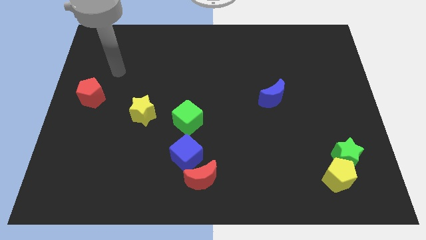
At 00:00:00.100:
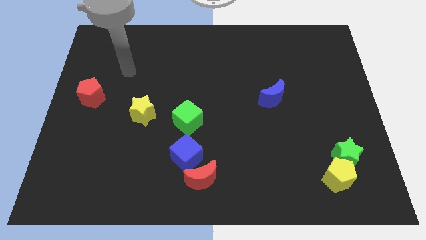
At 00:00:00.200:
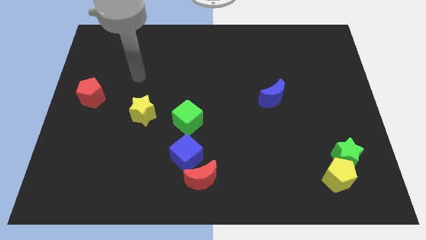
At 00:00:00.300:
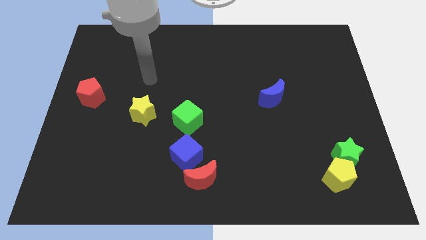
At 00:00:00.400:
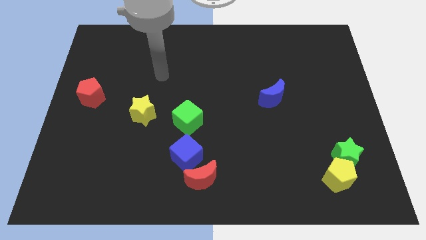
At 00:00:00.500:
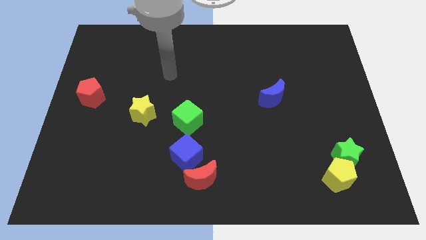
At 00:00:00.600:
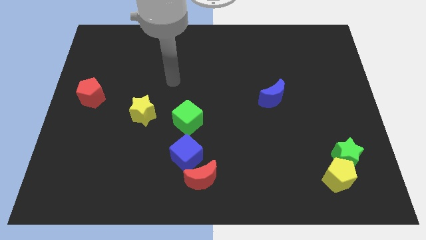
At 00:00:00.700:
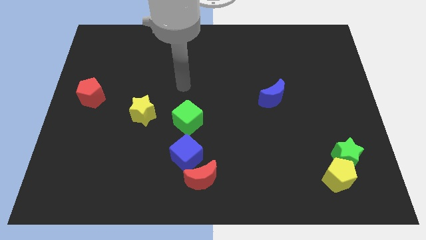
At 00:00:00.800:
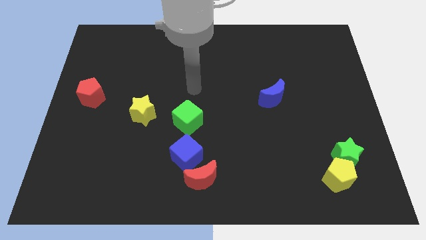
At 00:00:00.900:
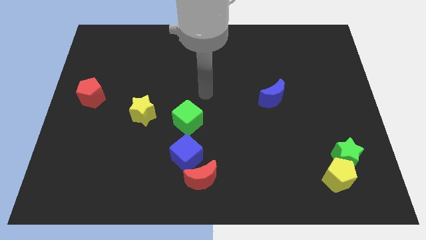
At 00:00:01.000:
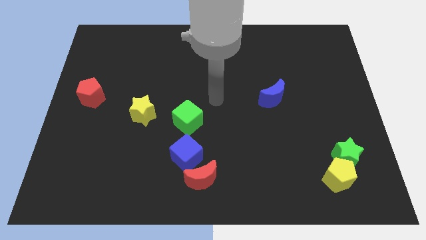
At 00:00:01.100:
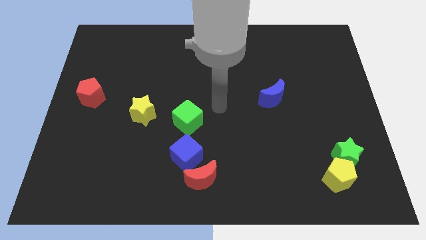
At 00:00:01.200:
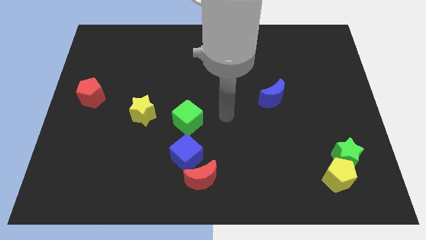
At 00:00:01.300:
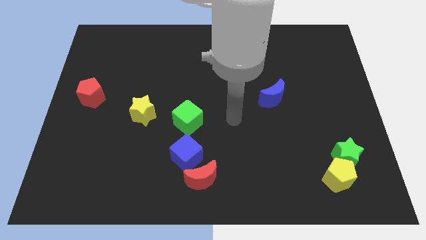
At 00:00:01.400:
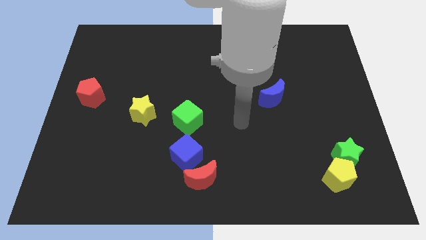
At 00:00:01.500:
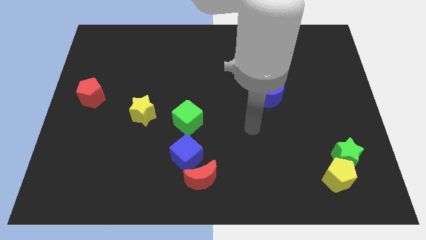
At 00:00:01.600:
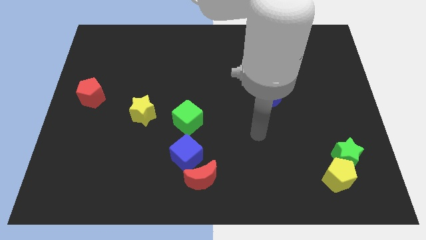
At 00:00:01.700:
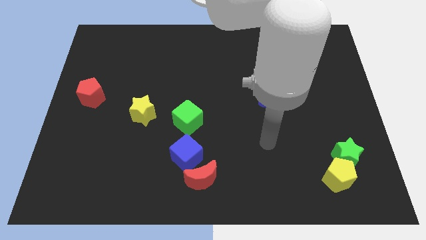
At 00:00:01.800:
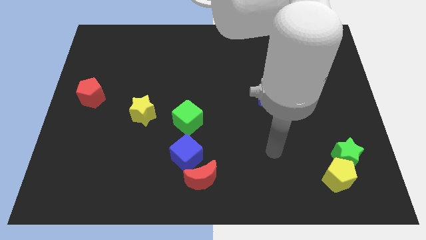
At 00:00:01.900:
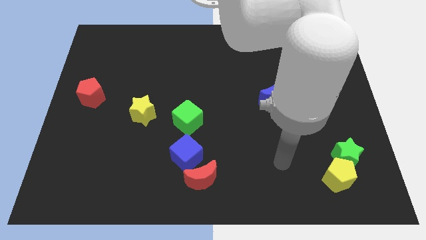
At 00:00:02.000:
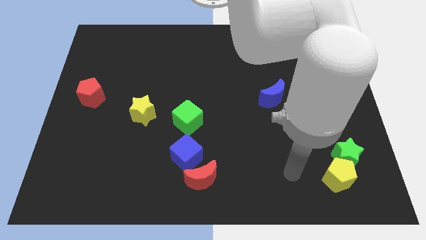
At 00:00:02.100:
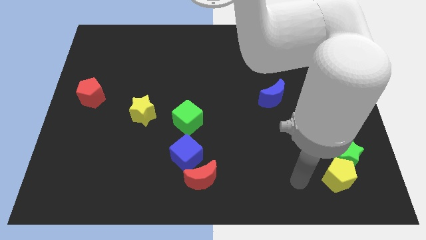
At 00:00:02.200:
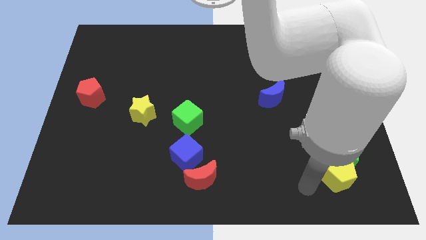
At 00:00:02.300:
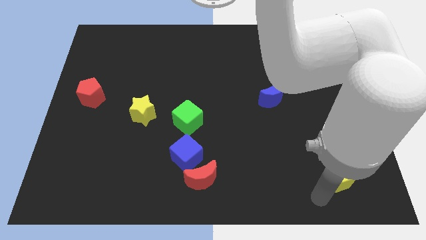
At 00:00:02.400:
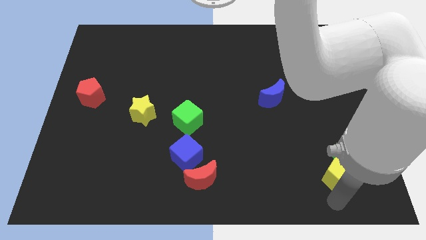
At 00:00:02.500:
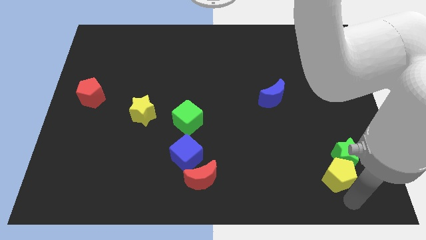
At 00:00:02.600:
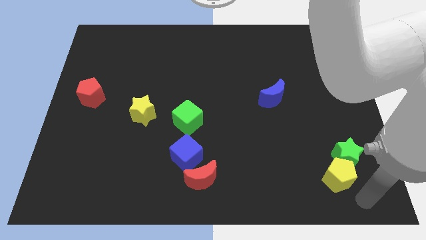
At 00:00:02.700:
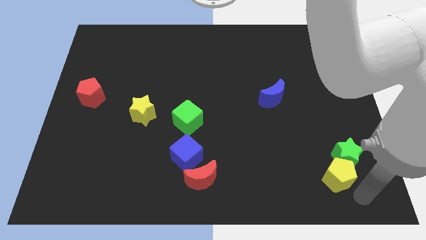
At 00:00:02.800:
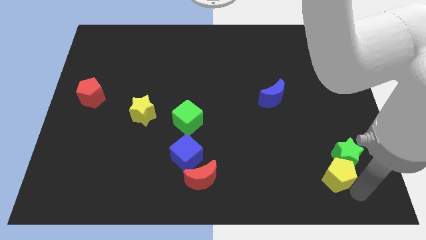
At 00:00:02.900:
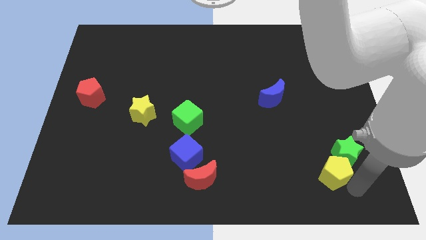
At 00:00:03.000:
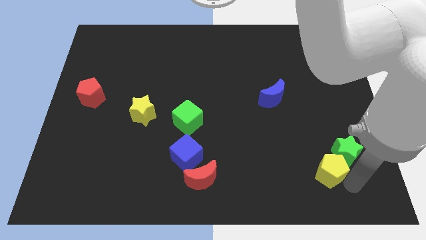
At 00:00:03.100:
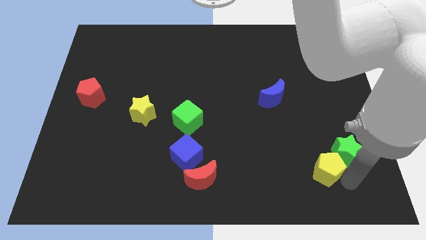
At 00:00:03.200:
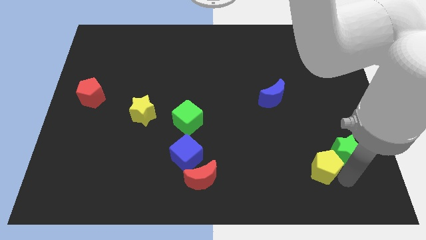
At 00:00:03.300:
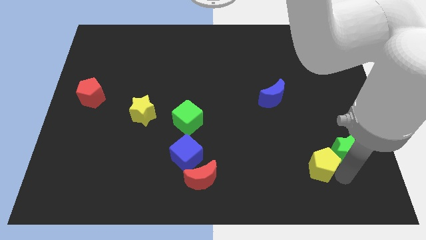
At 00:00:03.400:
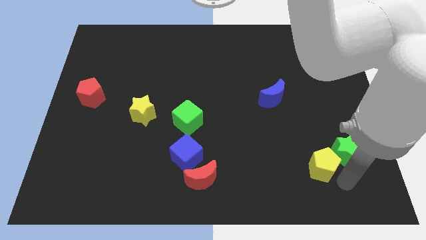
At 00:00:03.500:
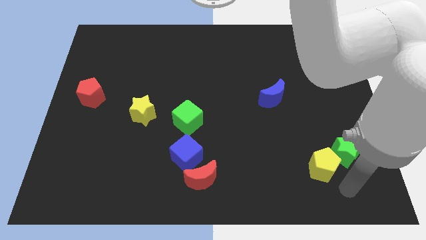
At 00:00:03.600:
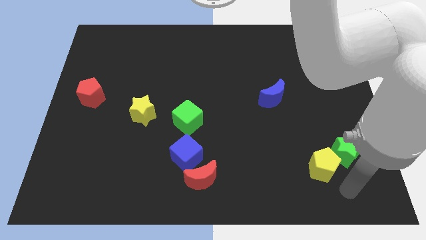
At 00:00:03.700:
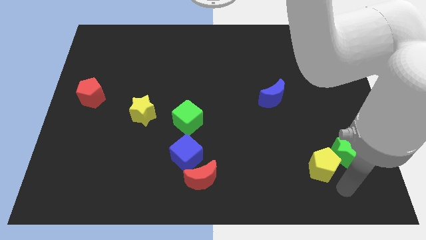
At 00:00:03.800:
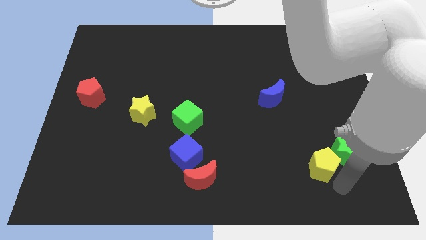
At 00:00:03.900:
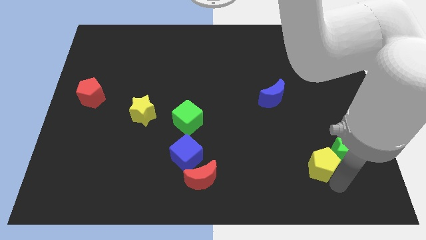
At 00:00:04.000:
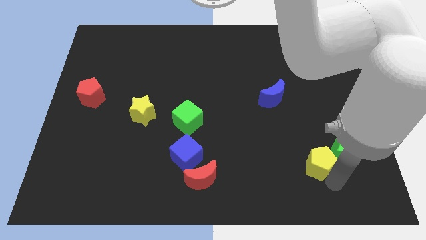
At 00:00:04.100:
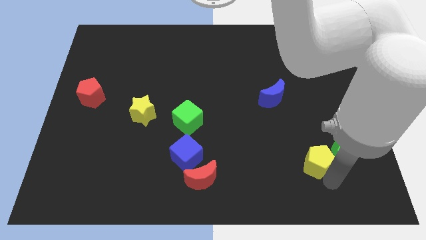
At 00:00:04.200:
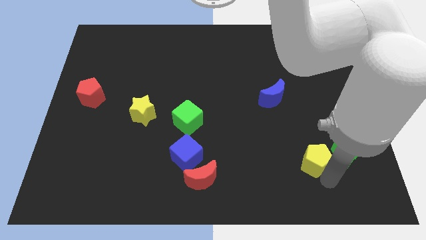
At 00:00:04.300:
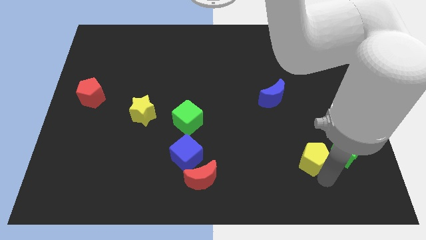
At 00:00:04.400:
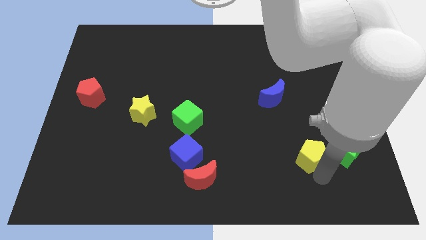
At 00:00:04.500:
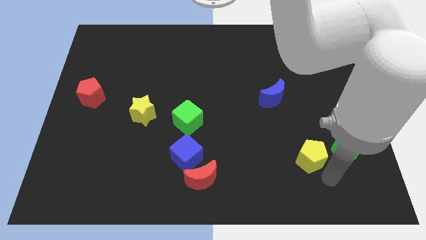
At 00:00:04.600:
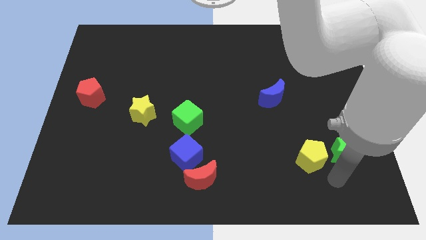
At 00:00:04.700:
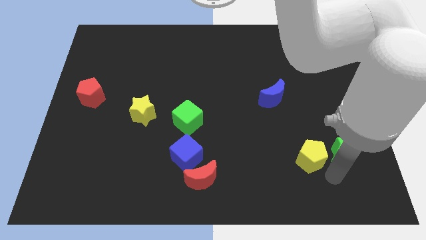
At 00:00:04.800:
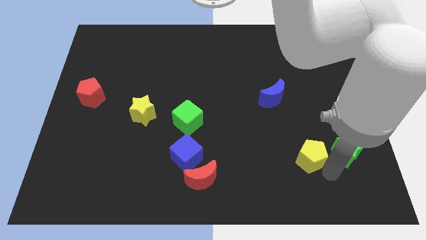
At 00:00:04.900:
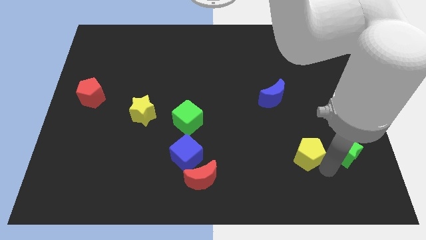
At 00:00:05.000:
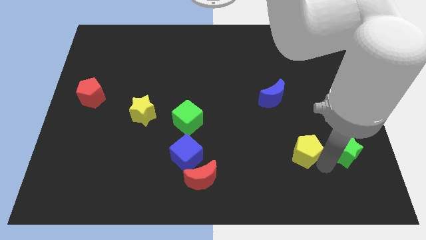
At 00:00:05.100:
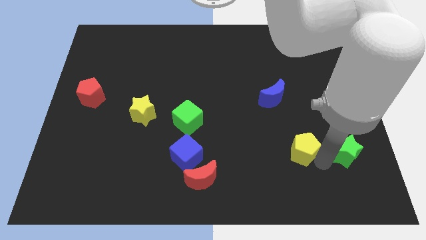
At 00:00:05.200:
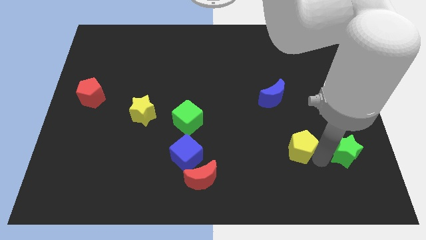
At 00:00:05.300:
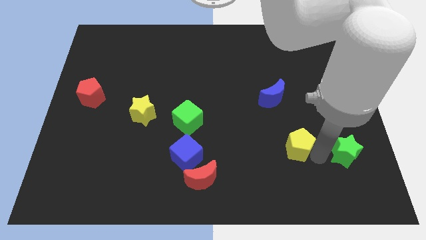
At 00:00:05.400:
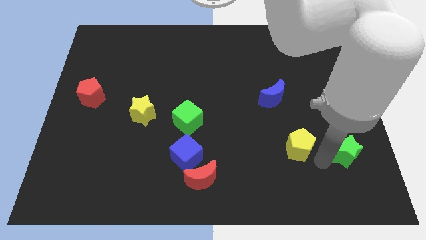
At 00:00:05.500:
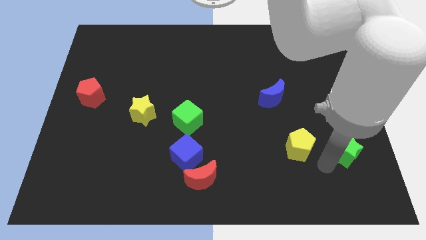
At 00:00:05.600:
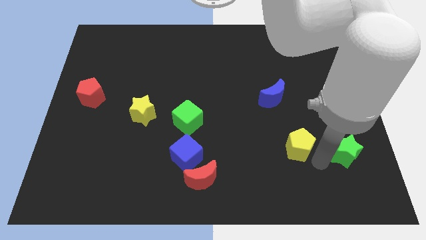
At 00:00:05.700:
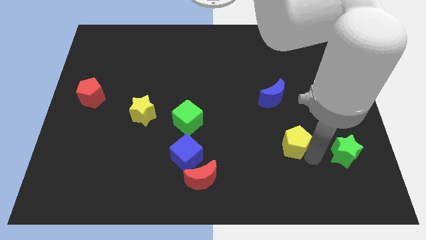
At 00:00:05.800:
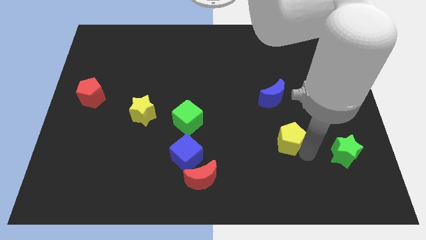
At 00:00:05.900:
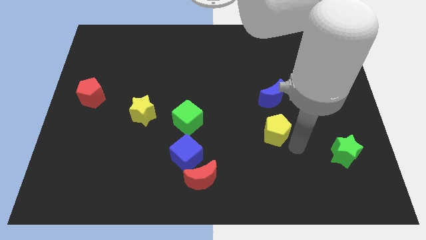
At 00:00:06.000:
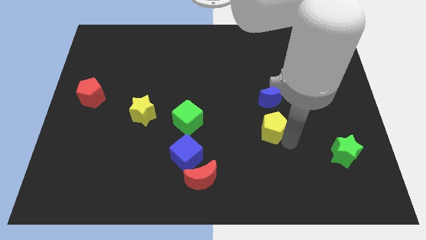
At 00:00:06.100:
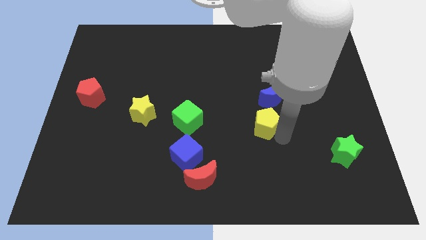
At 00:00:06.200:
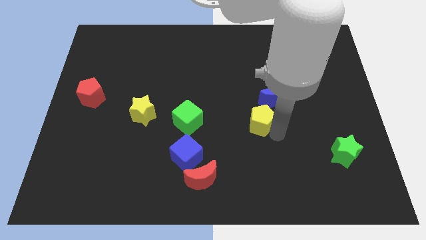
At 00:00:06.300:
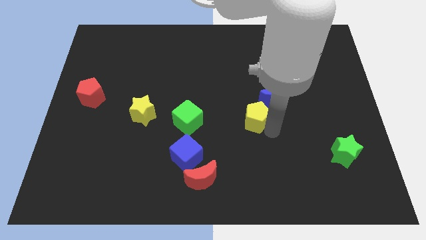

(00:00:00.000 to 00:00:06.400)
move the yellow pentagon to the middle of the board
